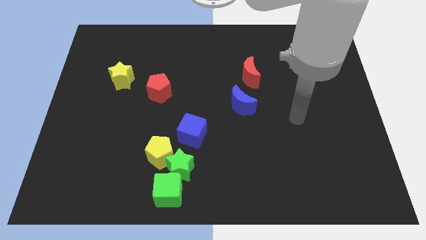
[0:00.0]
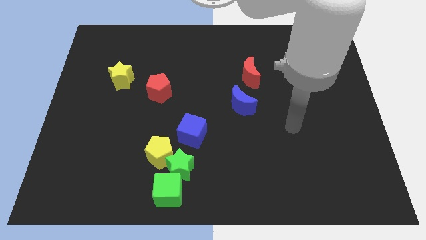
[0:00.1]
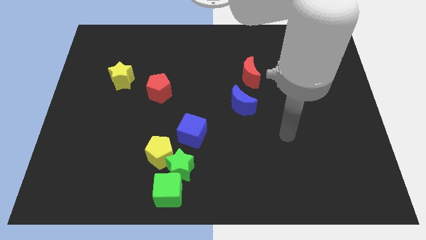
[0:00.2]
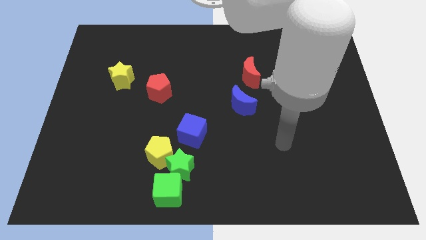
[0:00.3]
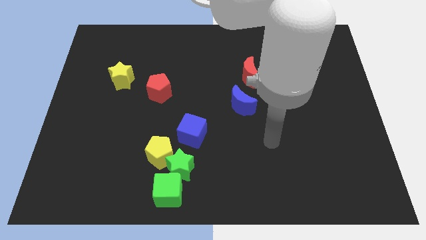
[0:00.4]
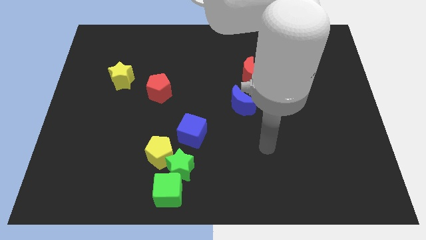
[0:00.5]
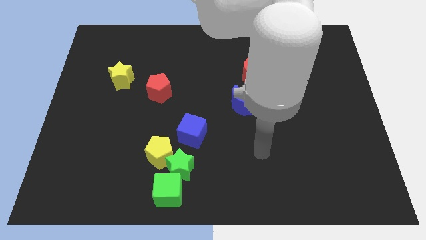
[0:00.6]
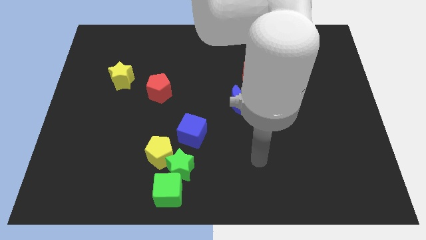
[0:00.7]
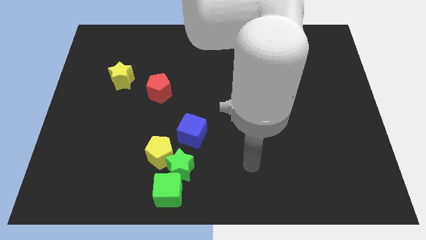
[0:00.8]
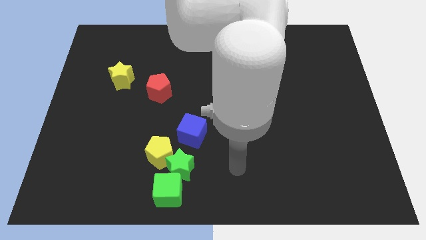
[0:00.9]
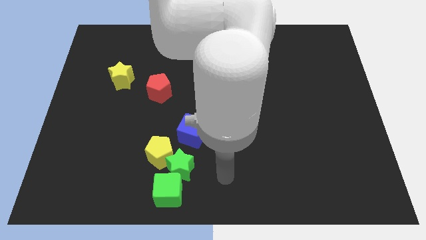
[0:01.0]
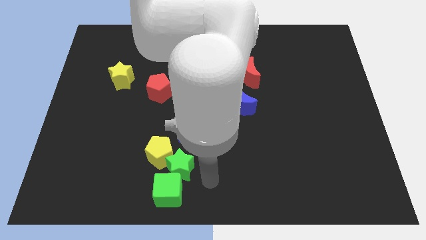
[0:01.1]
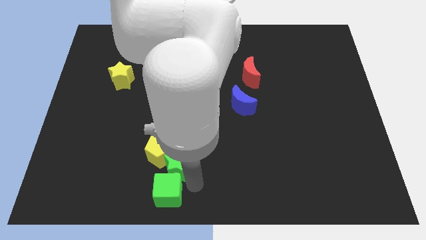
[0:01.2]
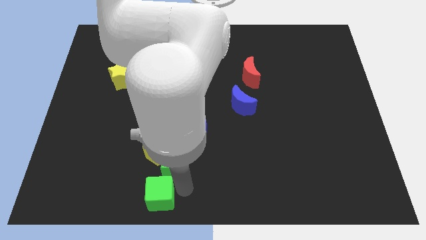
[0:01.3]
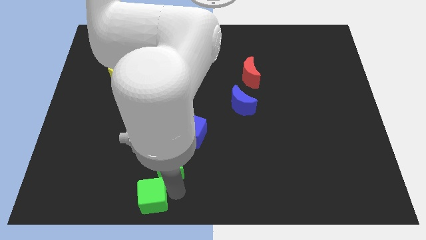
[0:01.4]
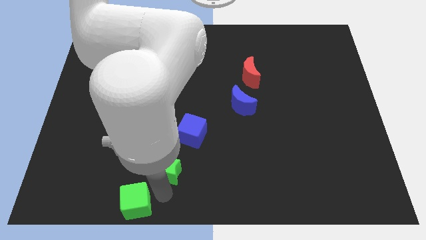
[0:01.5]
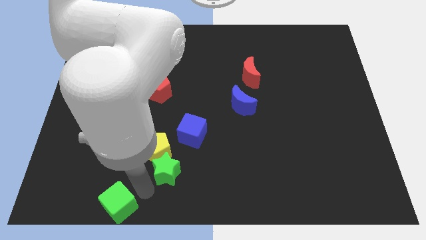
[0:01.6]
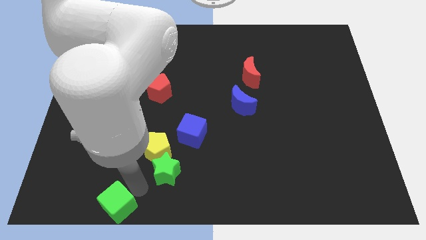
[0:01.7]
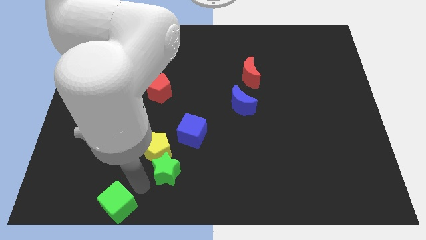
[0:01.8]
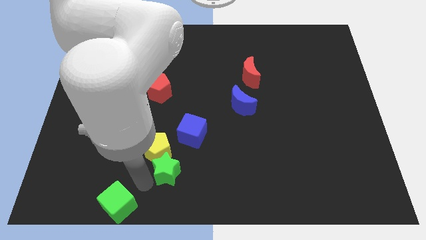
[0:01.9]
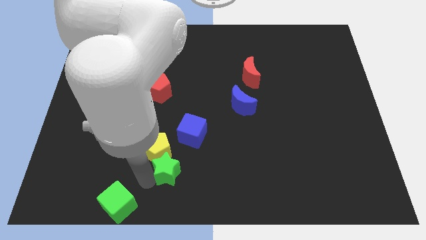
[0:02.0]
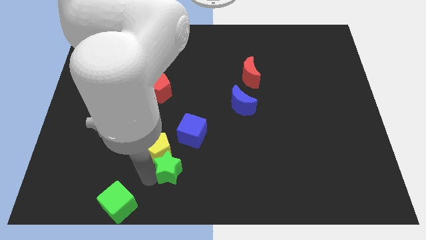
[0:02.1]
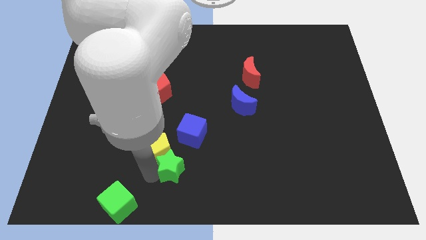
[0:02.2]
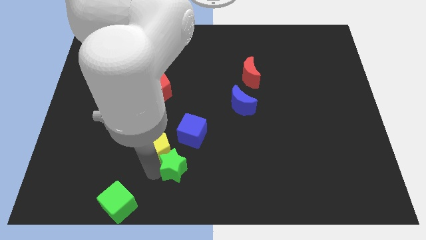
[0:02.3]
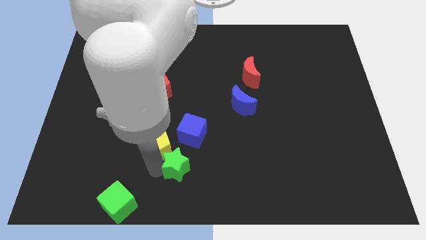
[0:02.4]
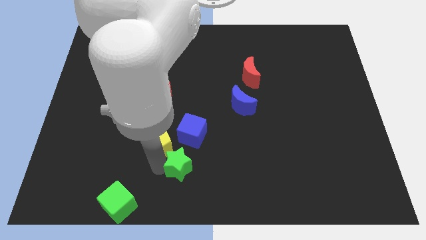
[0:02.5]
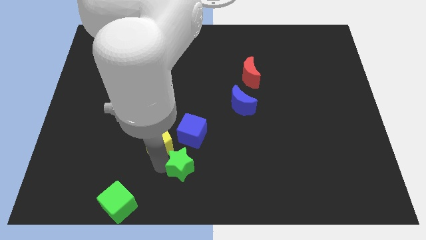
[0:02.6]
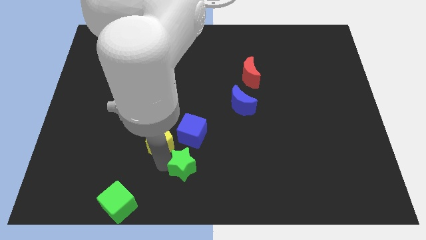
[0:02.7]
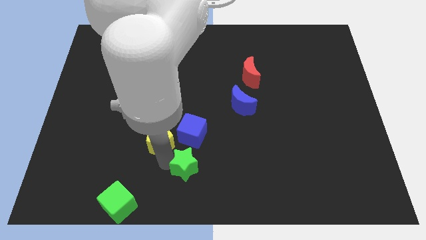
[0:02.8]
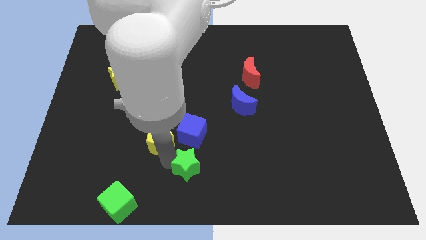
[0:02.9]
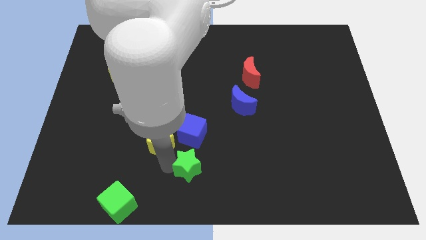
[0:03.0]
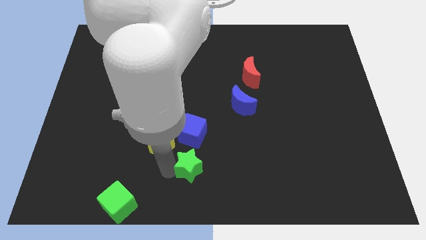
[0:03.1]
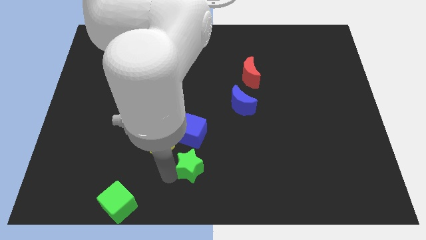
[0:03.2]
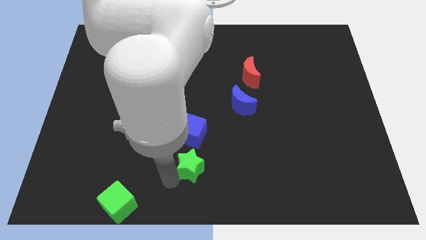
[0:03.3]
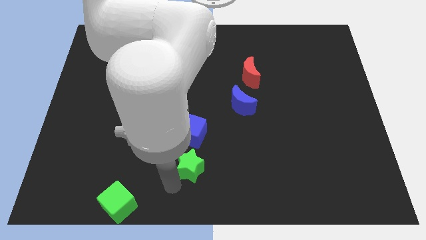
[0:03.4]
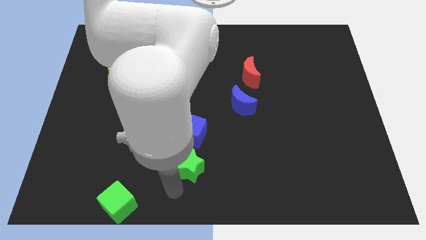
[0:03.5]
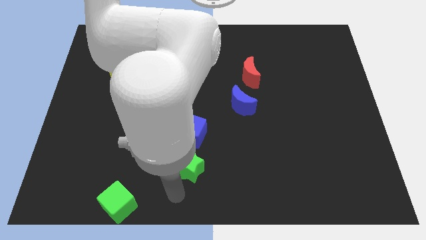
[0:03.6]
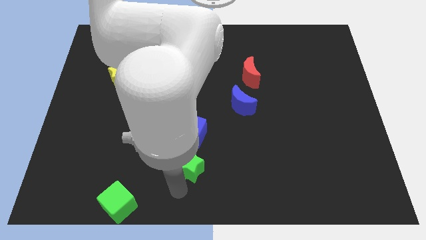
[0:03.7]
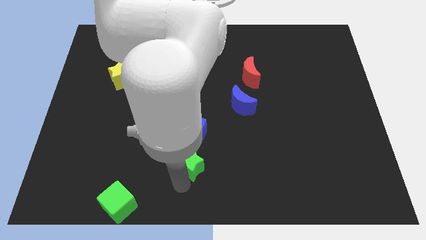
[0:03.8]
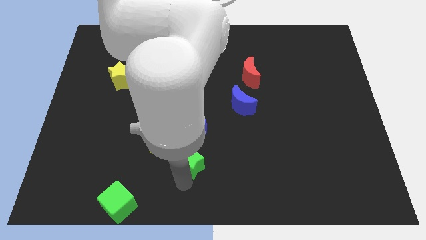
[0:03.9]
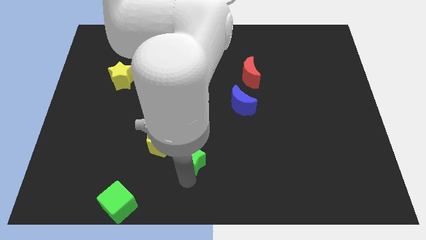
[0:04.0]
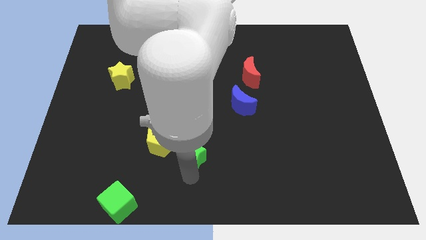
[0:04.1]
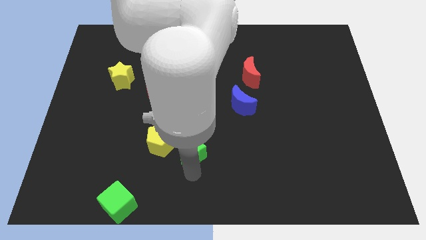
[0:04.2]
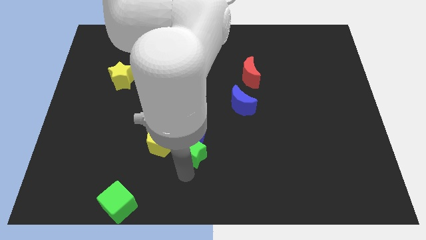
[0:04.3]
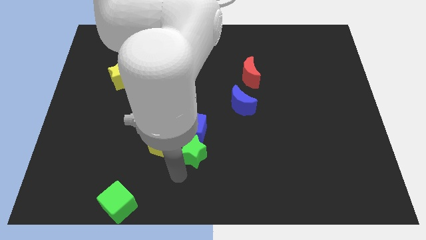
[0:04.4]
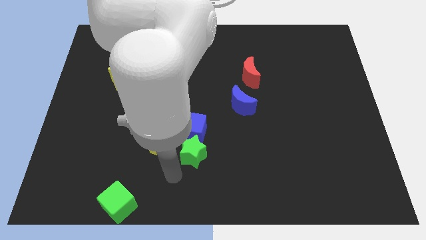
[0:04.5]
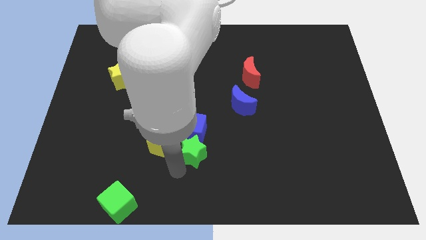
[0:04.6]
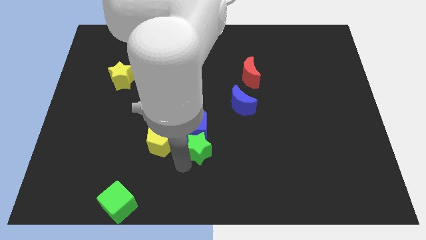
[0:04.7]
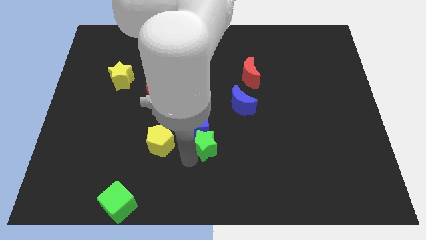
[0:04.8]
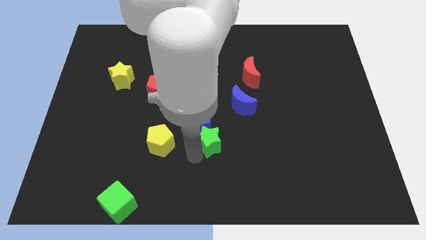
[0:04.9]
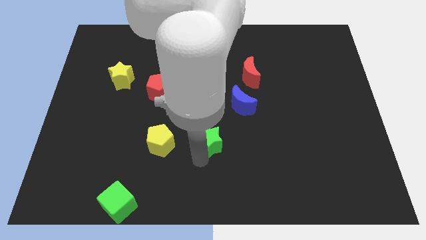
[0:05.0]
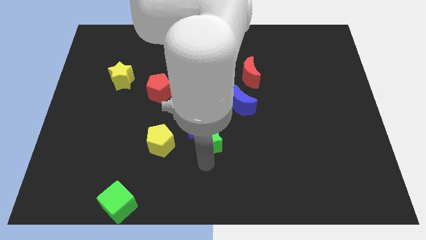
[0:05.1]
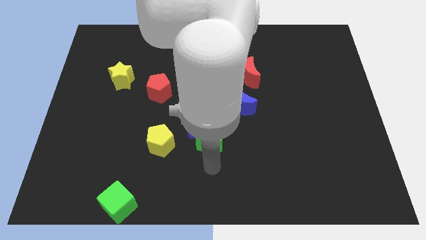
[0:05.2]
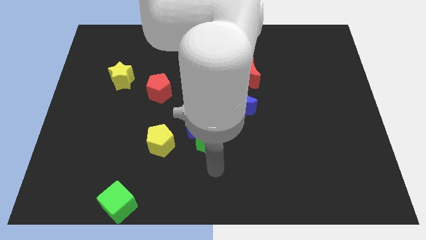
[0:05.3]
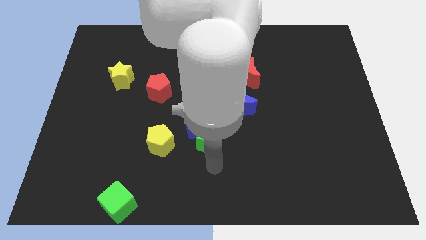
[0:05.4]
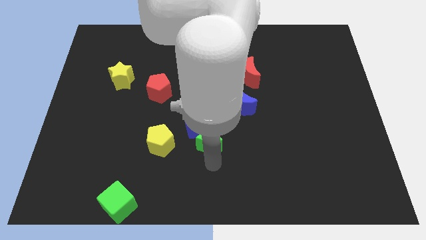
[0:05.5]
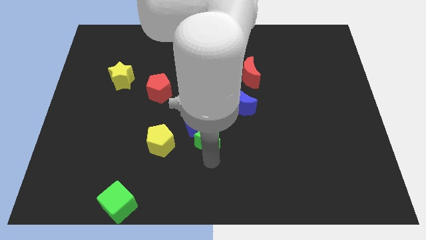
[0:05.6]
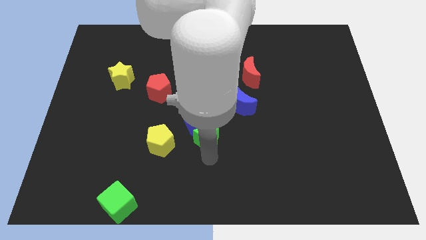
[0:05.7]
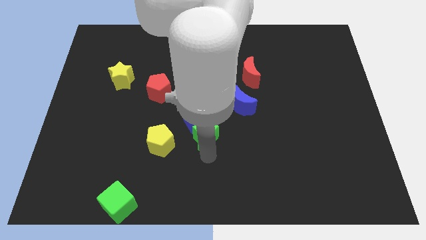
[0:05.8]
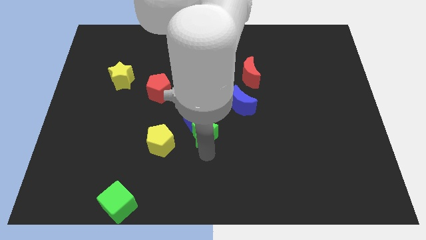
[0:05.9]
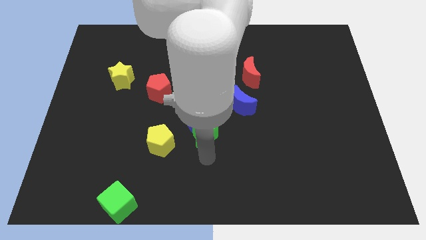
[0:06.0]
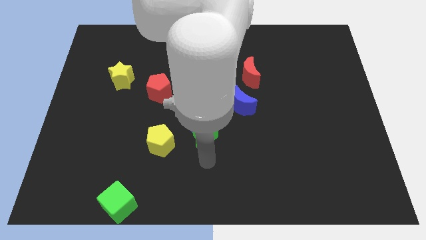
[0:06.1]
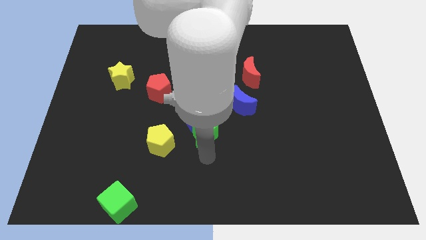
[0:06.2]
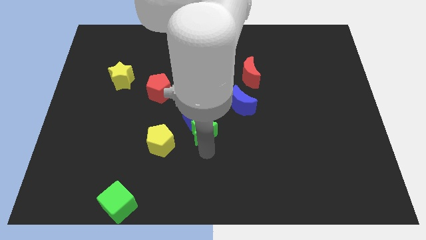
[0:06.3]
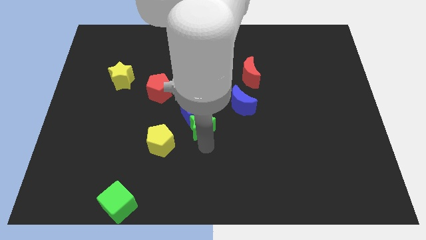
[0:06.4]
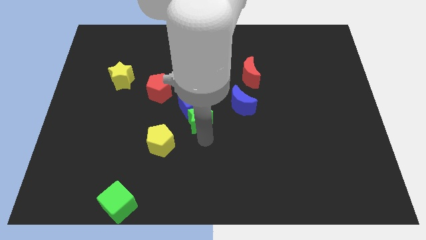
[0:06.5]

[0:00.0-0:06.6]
slide the green star just left of the blue moon

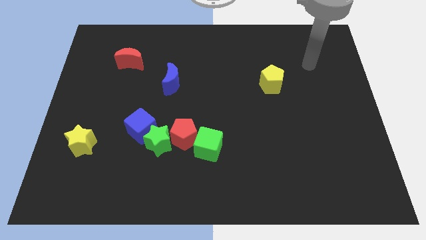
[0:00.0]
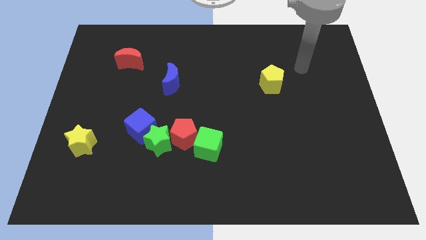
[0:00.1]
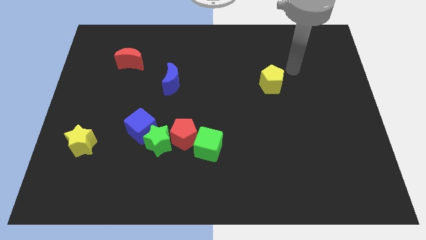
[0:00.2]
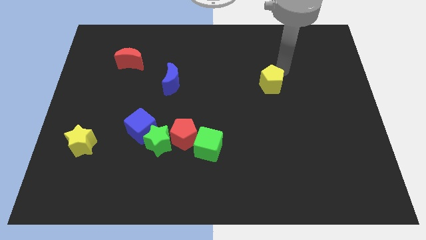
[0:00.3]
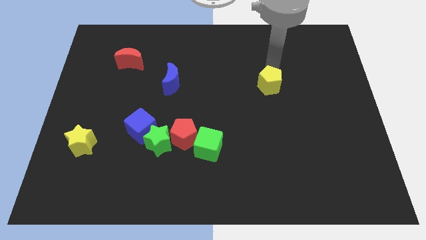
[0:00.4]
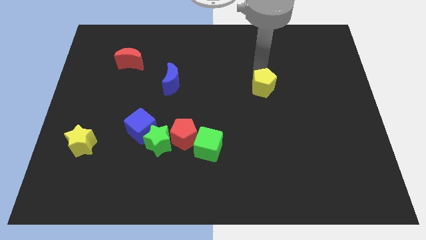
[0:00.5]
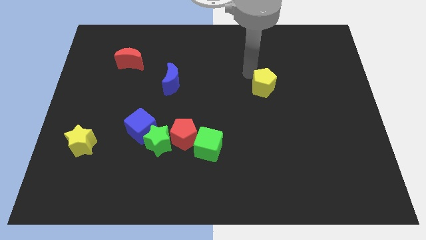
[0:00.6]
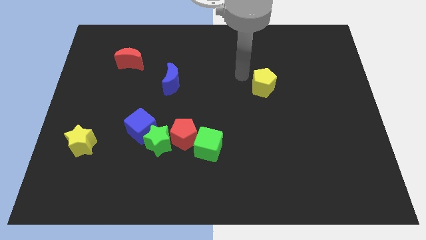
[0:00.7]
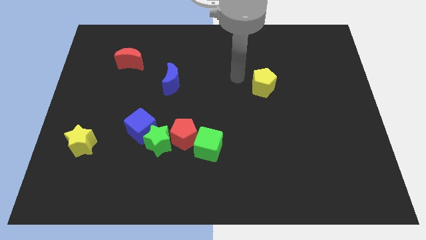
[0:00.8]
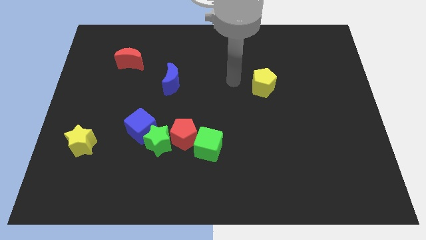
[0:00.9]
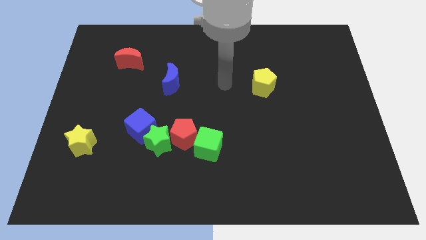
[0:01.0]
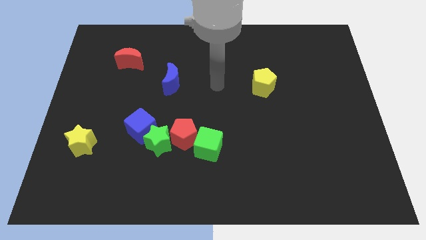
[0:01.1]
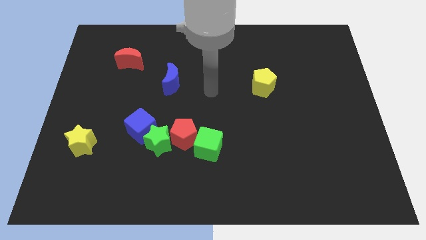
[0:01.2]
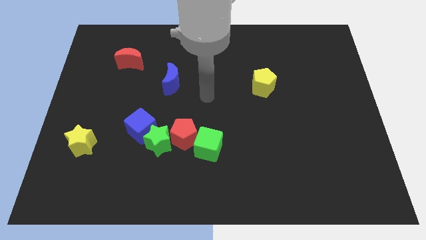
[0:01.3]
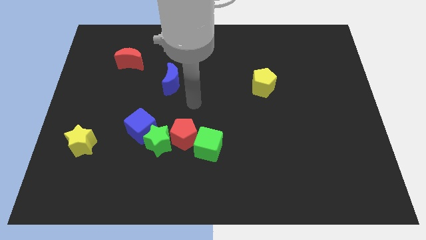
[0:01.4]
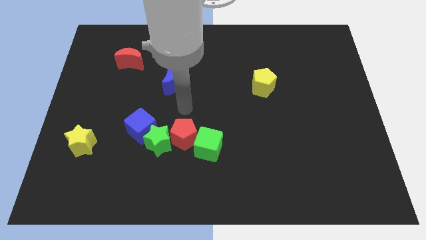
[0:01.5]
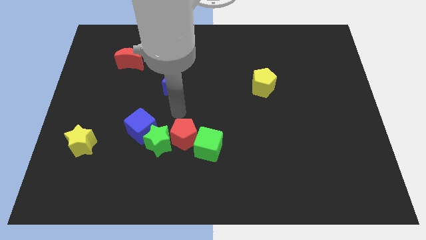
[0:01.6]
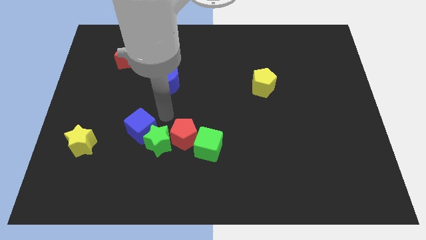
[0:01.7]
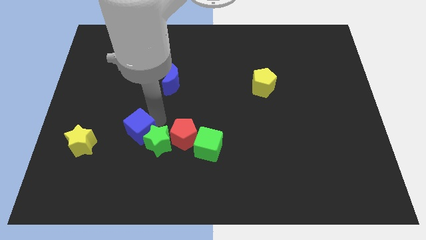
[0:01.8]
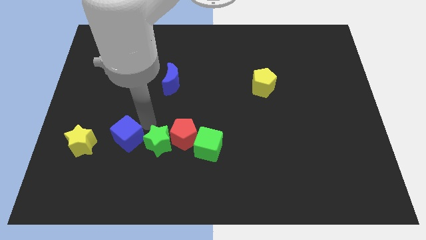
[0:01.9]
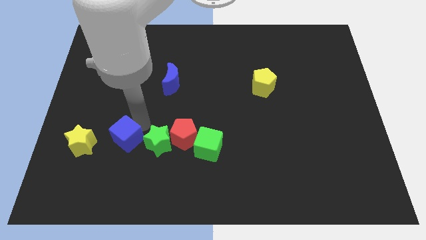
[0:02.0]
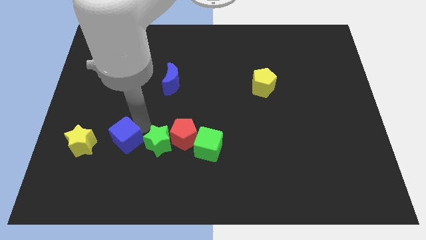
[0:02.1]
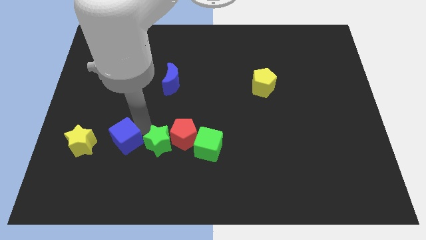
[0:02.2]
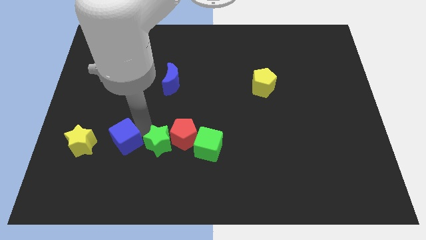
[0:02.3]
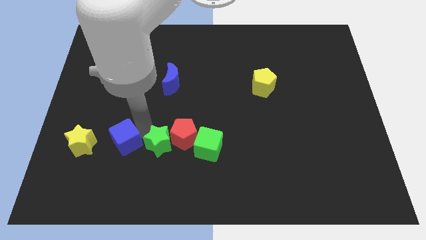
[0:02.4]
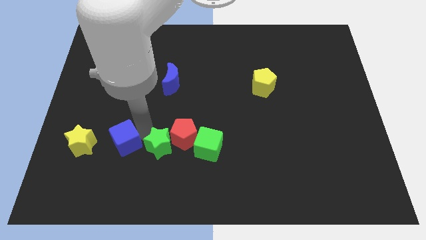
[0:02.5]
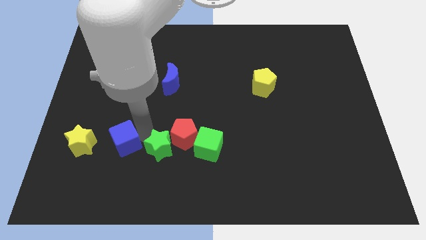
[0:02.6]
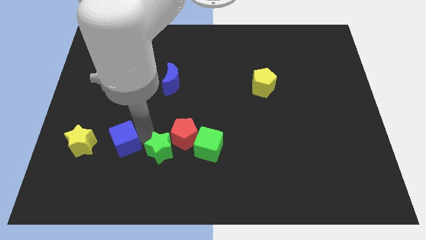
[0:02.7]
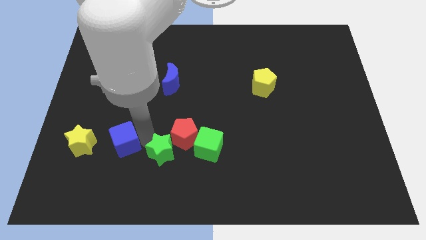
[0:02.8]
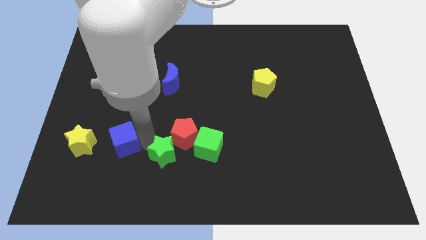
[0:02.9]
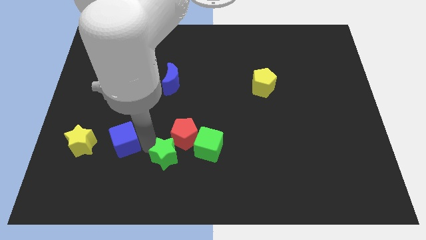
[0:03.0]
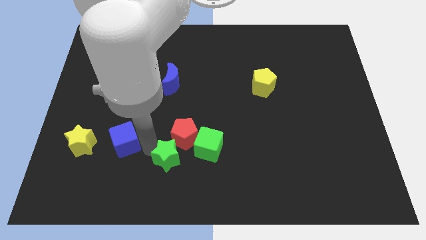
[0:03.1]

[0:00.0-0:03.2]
slide the green star to the bottom left side of the green cube
